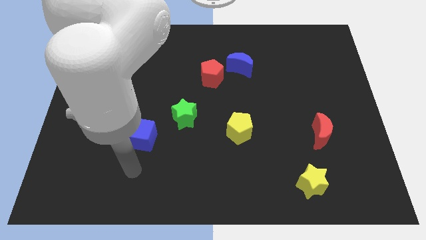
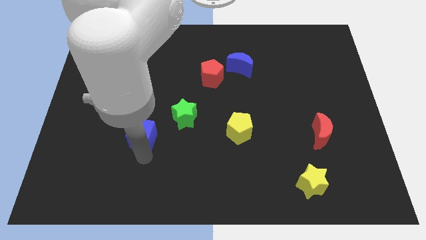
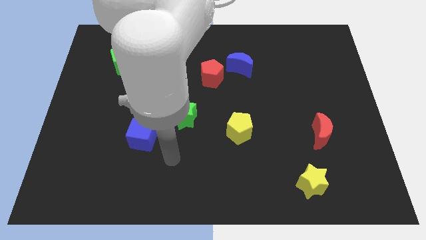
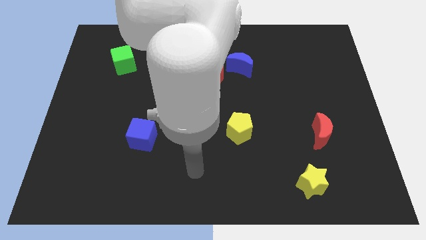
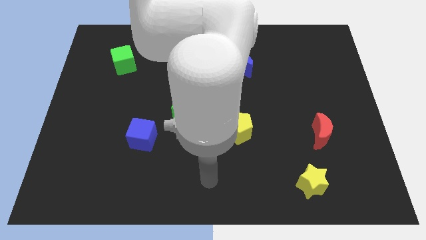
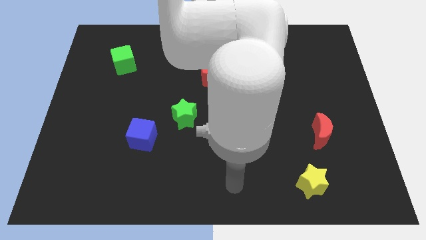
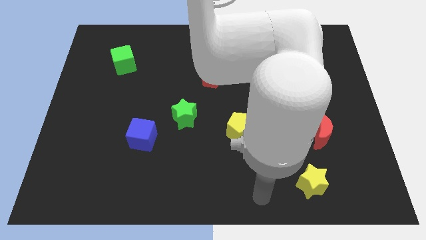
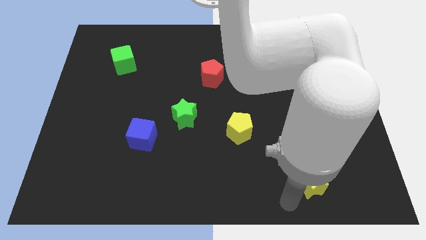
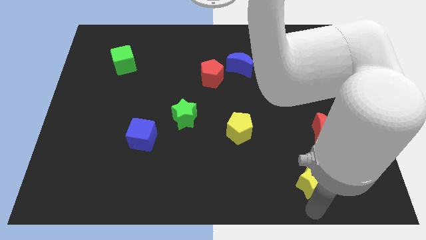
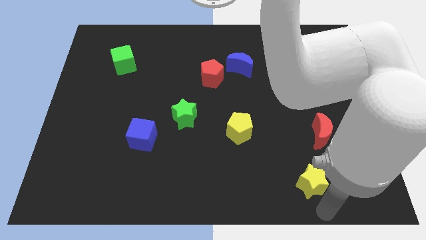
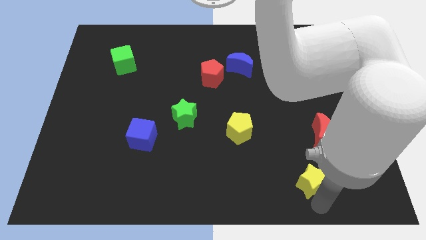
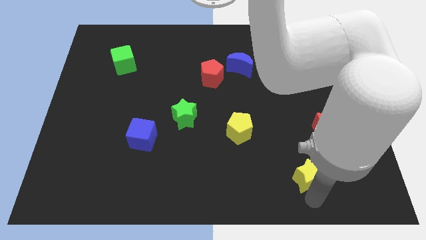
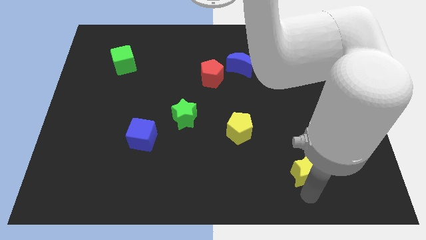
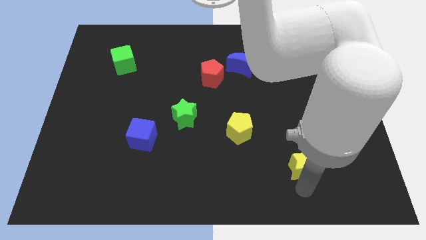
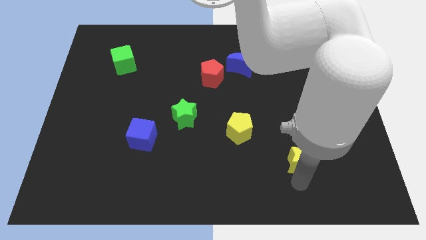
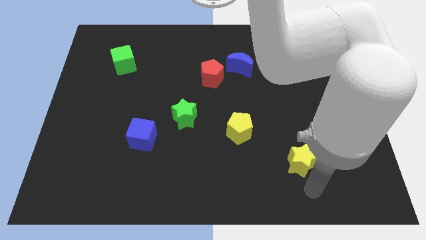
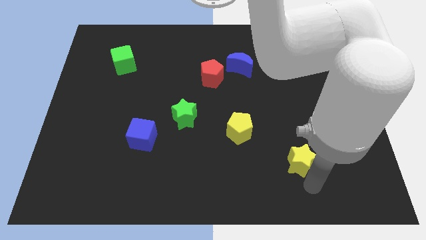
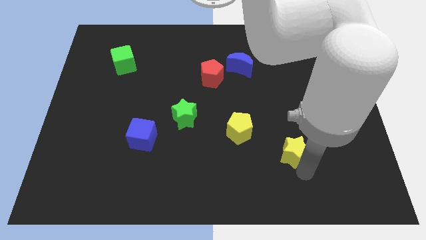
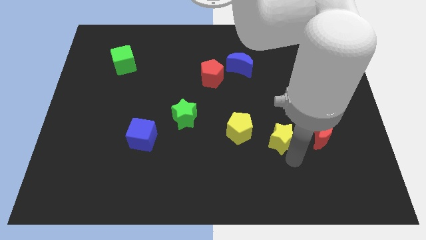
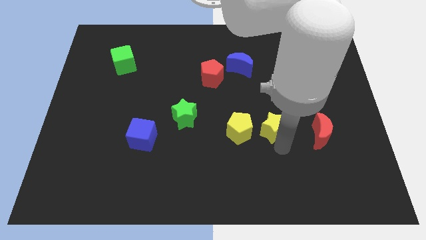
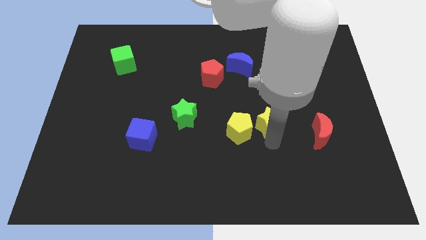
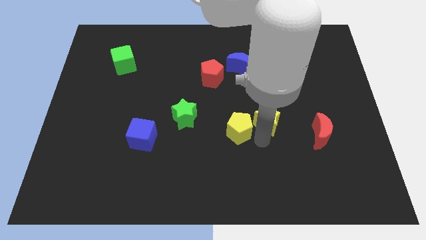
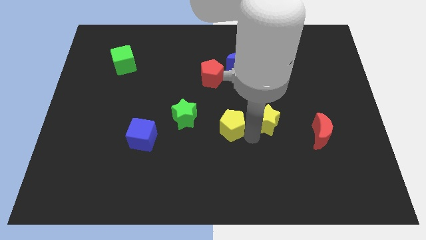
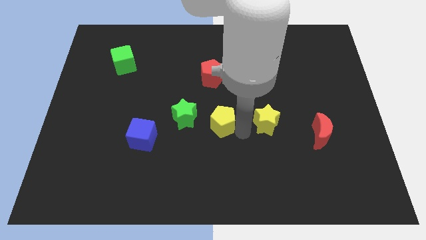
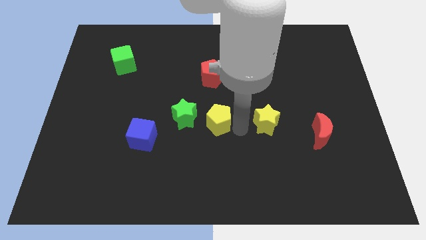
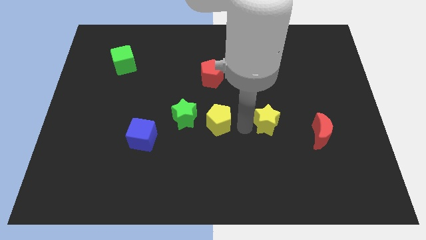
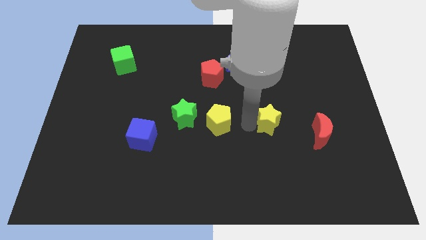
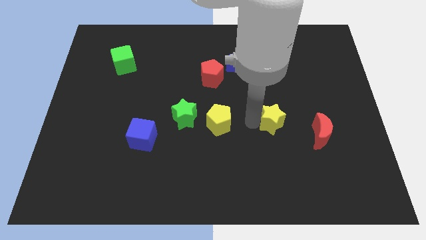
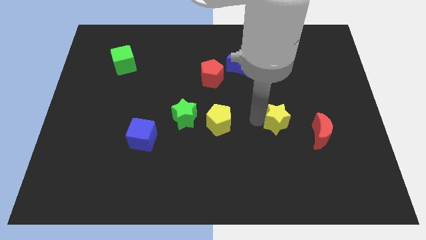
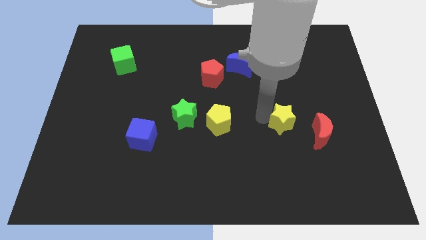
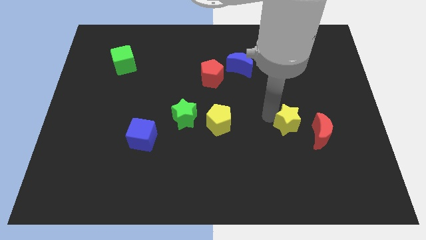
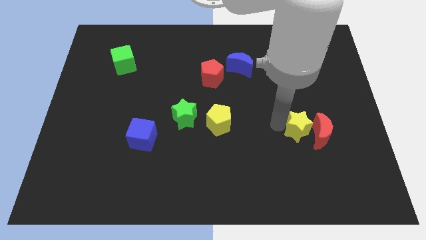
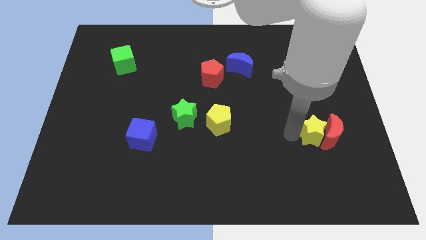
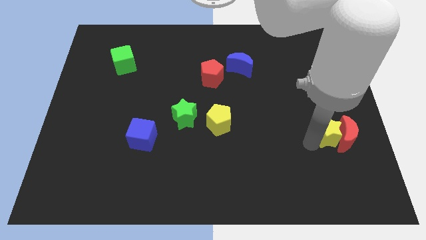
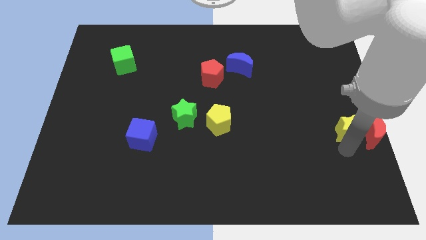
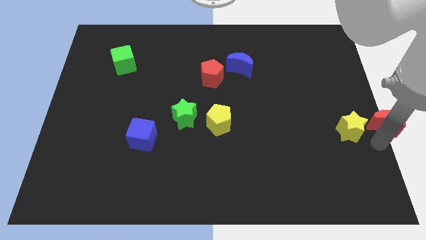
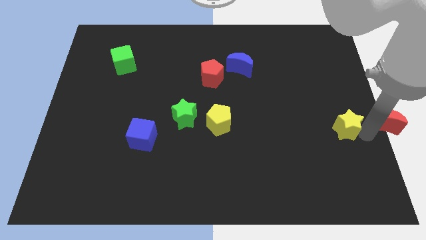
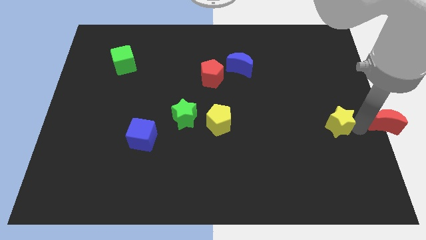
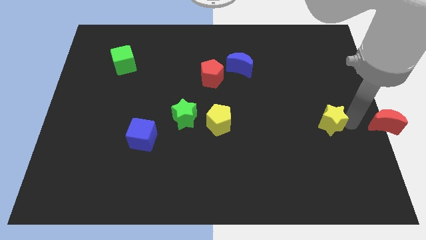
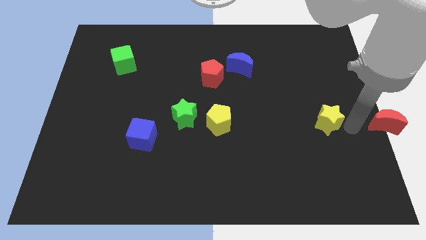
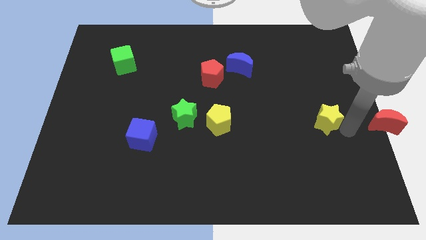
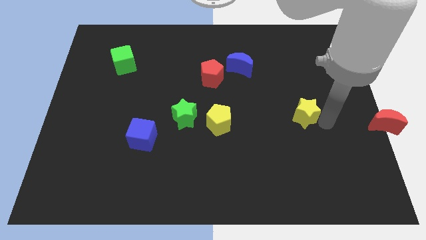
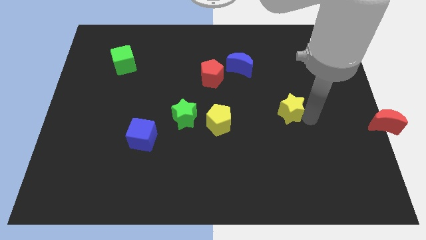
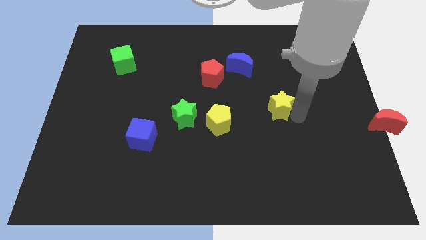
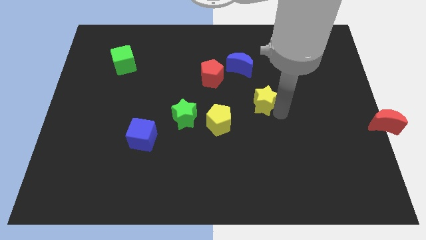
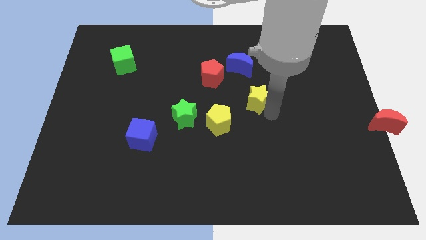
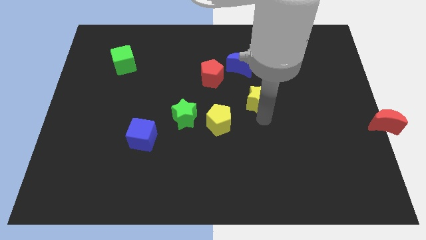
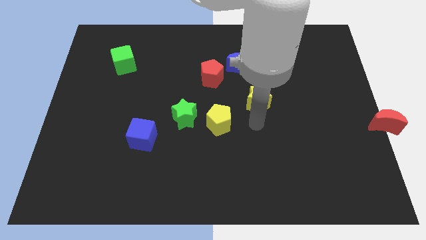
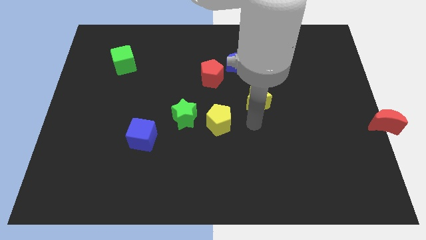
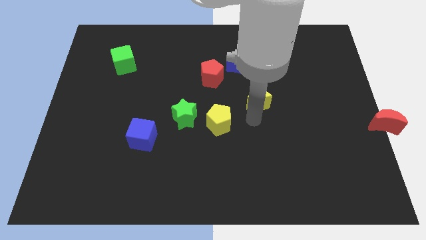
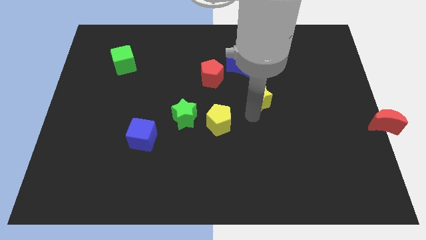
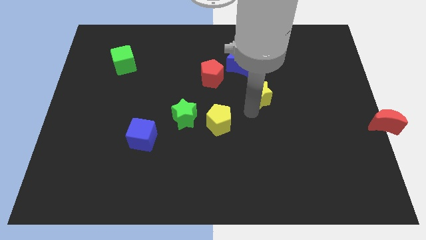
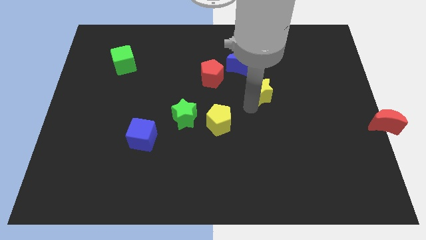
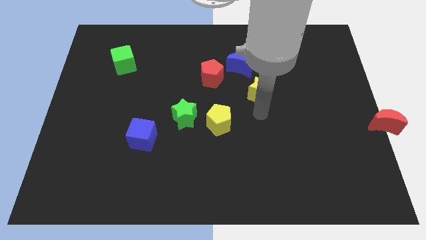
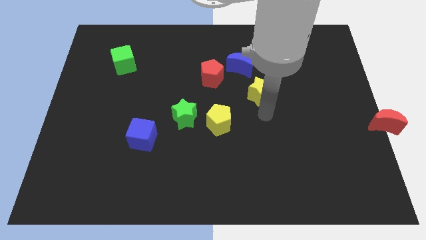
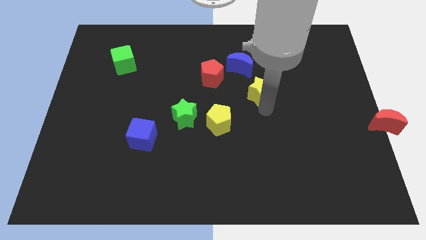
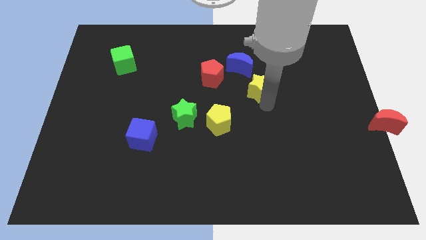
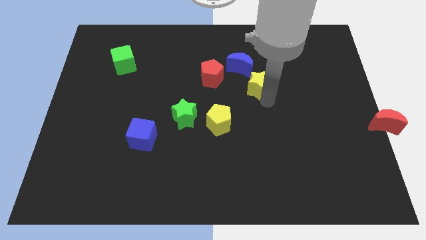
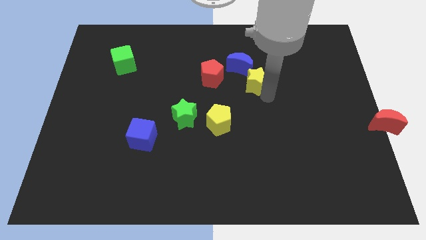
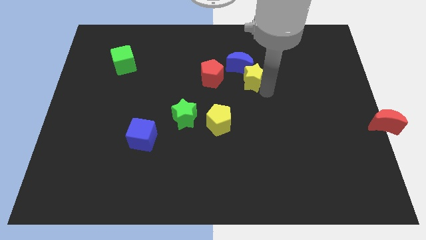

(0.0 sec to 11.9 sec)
put the yellow star close to the blue moon

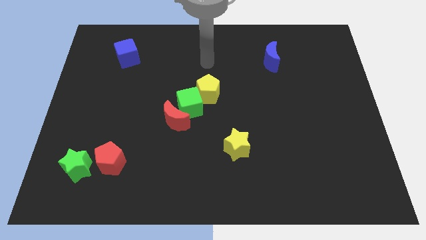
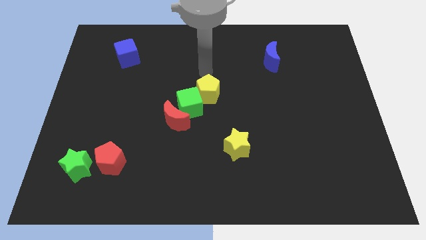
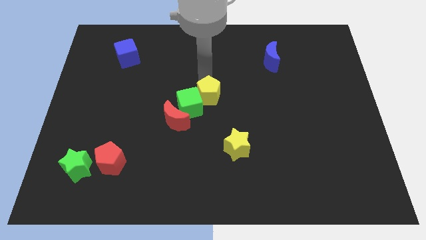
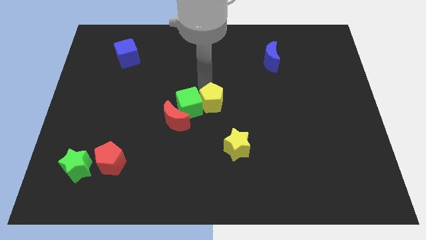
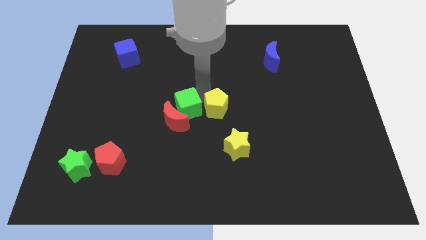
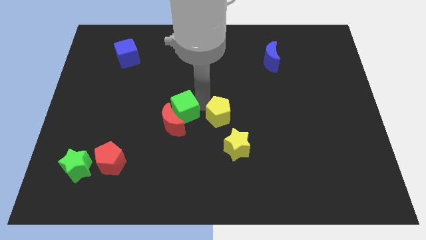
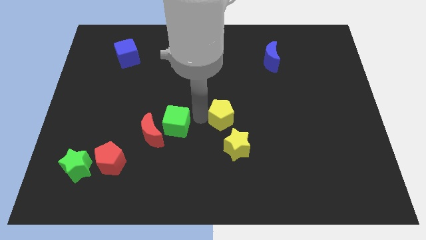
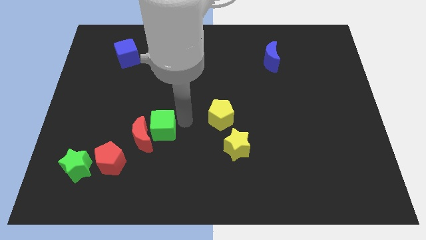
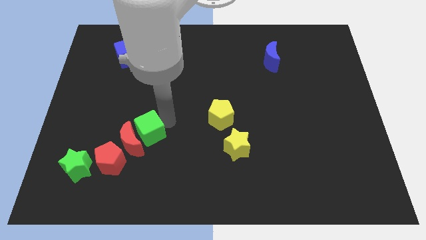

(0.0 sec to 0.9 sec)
slide the red moon close to the red pentagon
